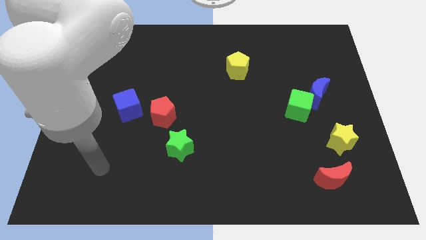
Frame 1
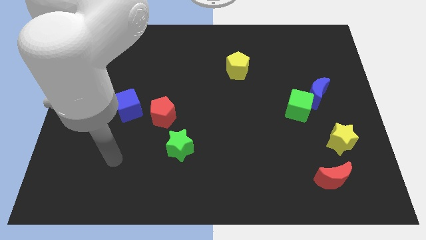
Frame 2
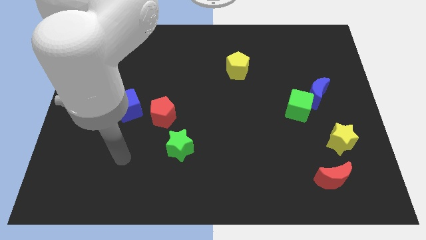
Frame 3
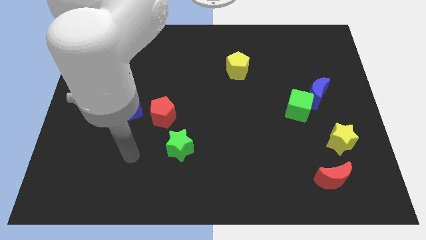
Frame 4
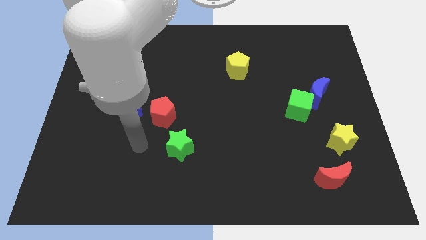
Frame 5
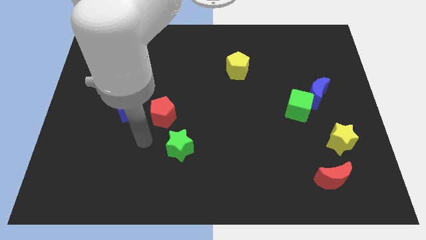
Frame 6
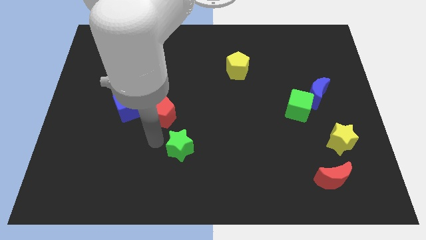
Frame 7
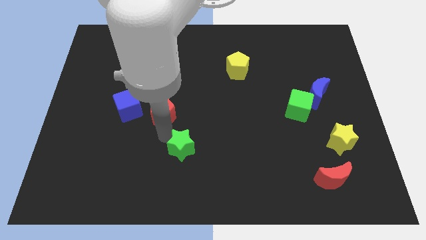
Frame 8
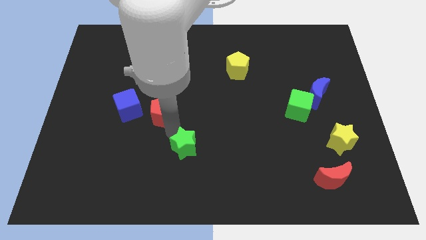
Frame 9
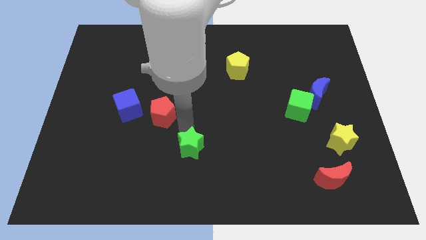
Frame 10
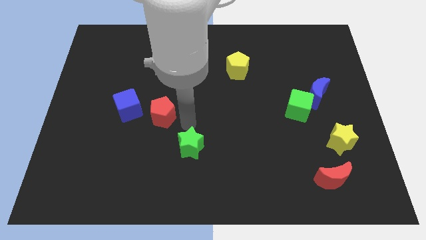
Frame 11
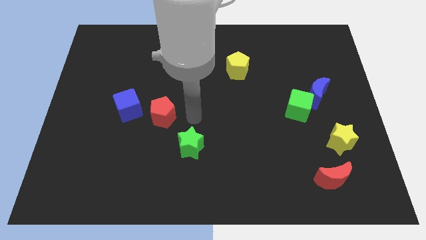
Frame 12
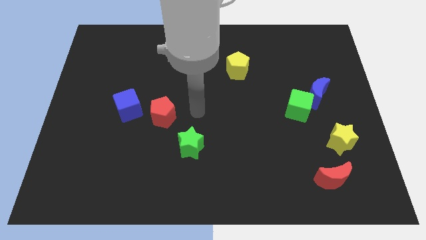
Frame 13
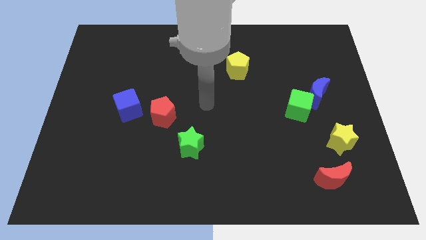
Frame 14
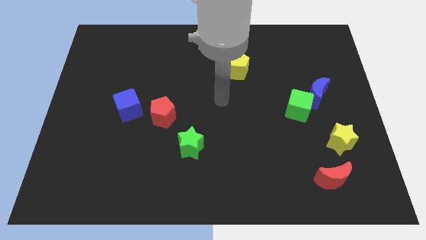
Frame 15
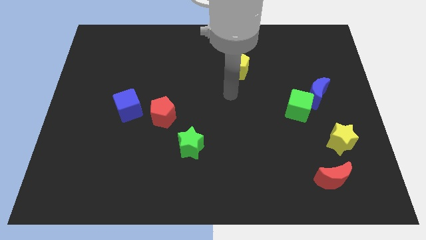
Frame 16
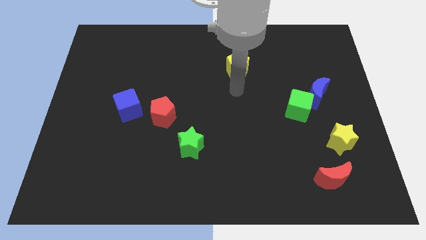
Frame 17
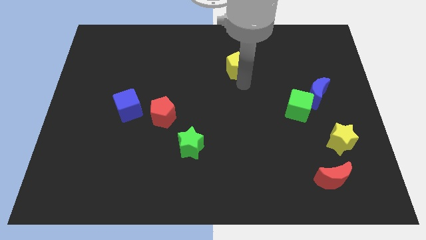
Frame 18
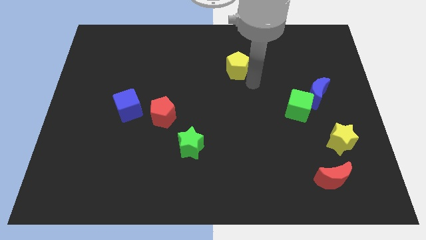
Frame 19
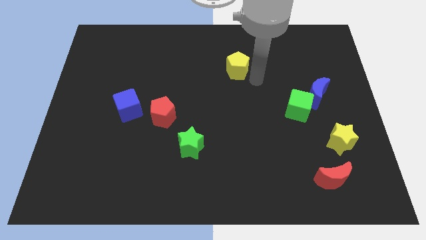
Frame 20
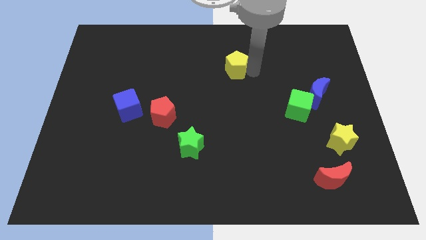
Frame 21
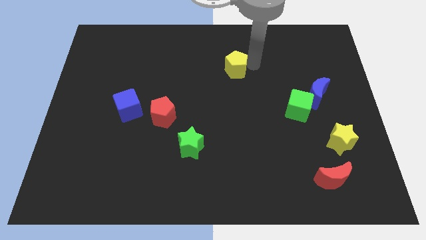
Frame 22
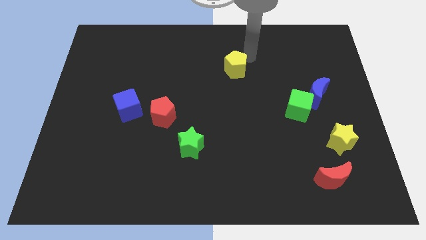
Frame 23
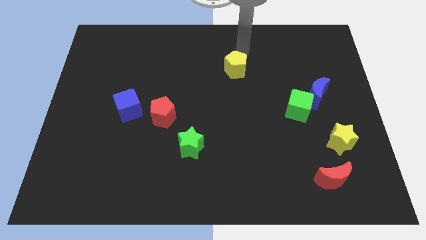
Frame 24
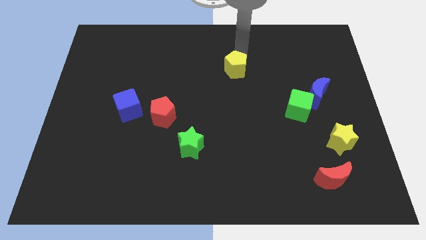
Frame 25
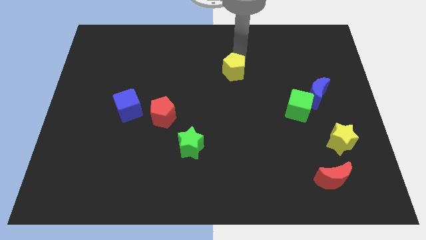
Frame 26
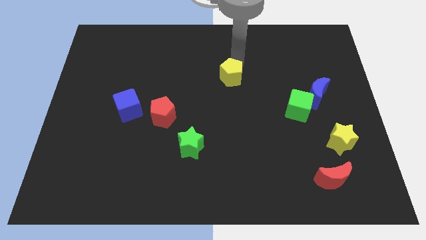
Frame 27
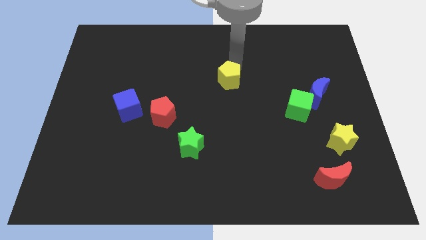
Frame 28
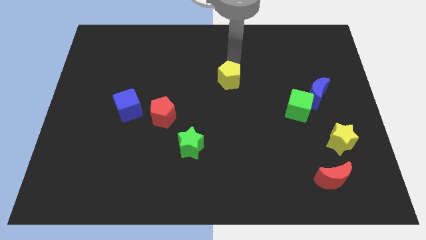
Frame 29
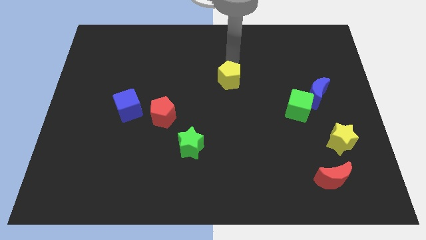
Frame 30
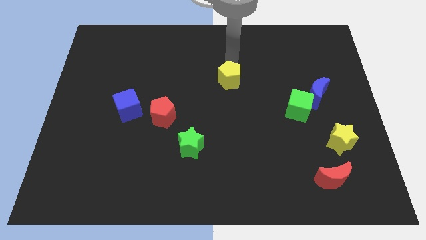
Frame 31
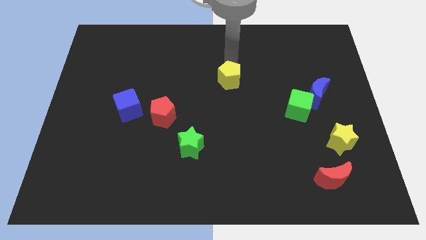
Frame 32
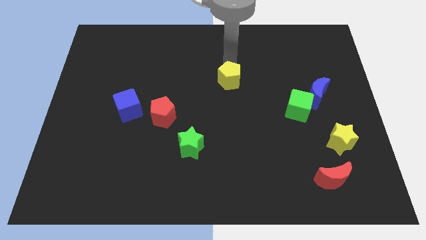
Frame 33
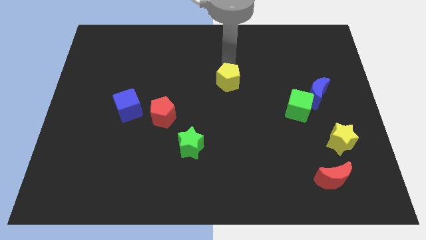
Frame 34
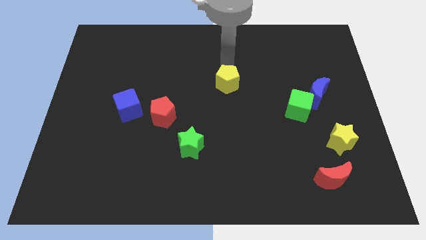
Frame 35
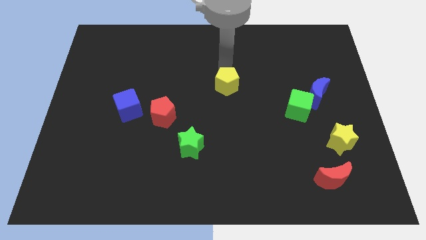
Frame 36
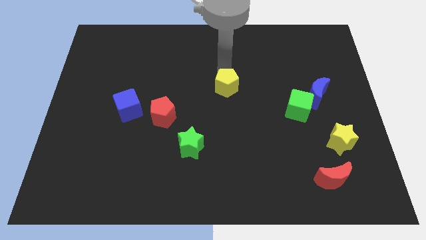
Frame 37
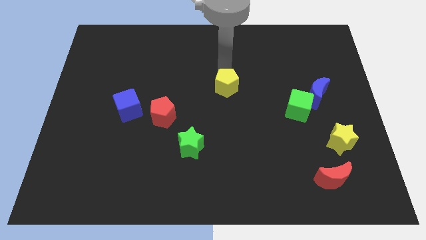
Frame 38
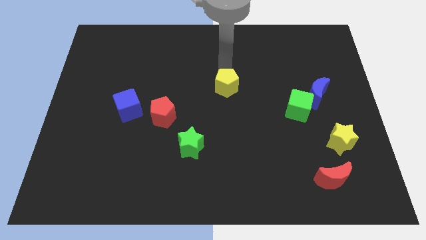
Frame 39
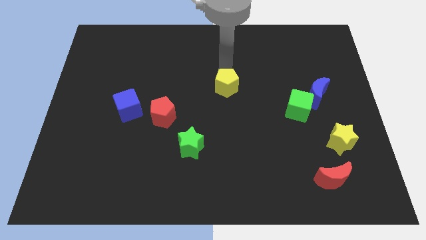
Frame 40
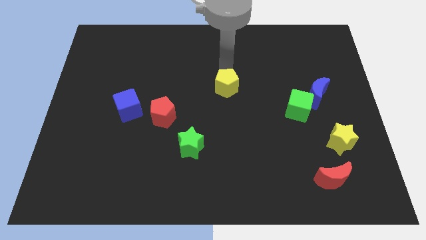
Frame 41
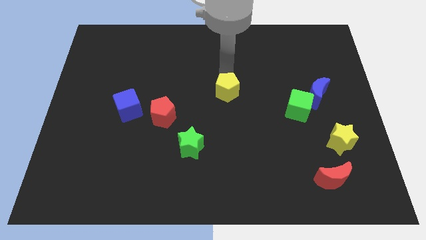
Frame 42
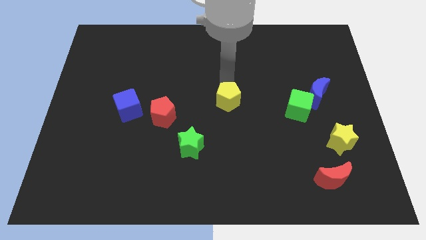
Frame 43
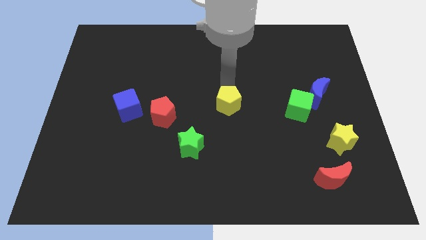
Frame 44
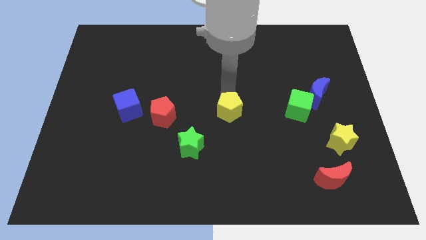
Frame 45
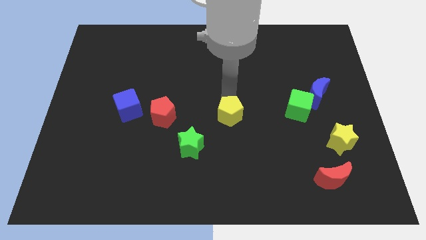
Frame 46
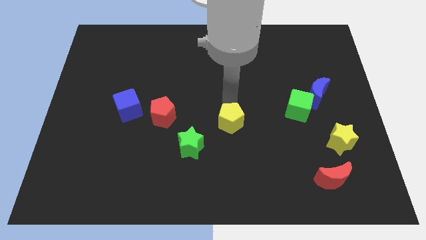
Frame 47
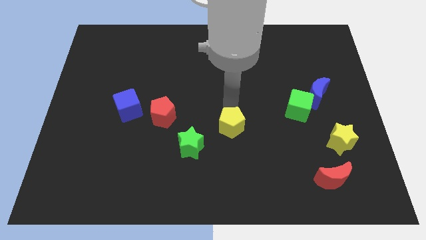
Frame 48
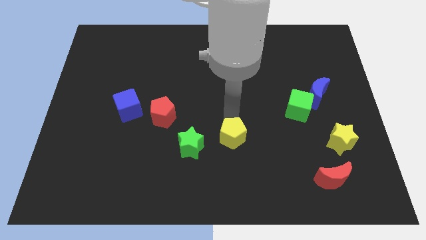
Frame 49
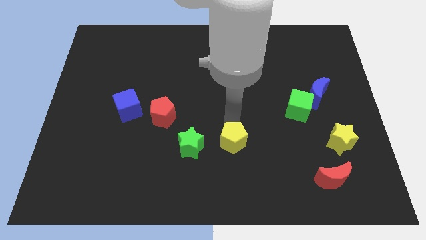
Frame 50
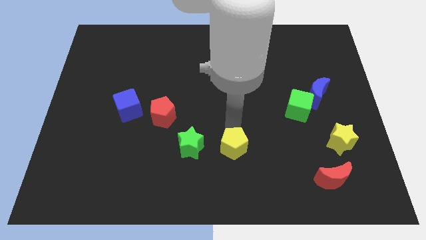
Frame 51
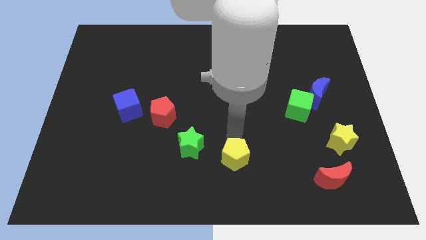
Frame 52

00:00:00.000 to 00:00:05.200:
push the yellow pentagon to the bottom side

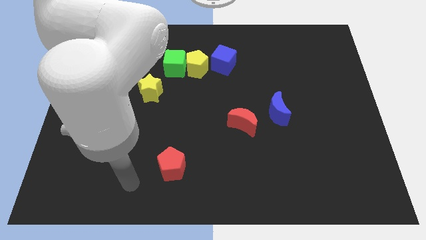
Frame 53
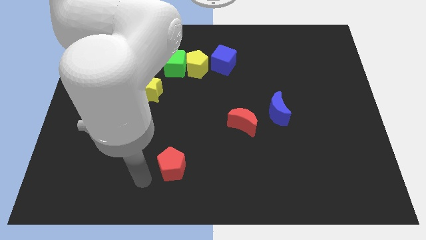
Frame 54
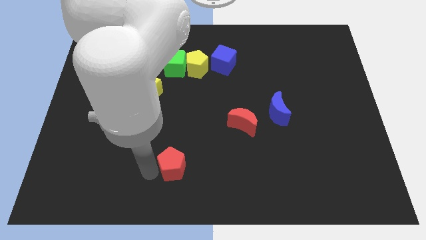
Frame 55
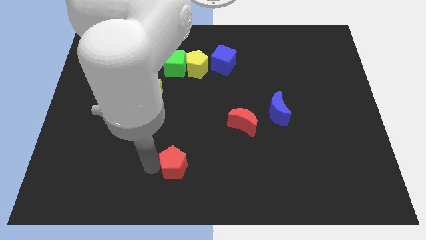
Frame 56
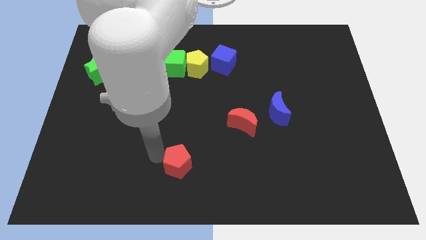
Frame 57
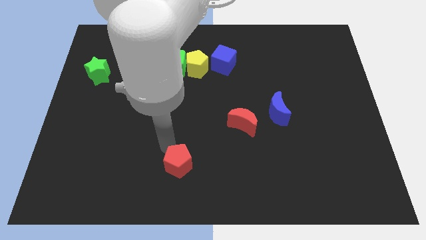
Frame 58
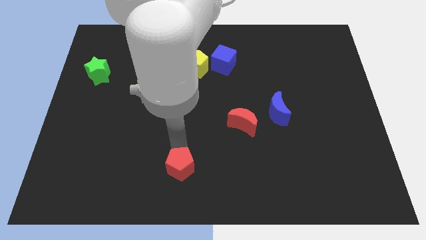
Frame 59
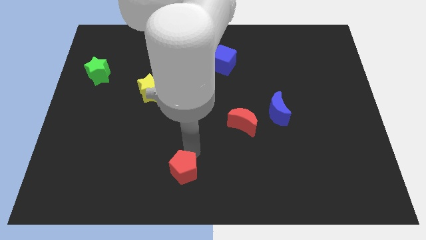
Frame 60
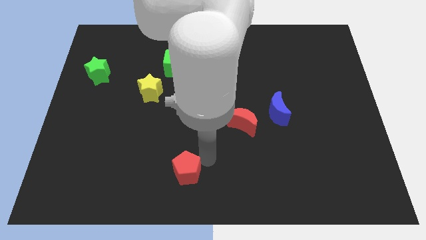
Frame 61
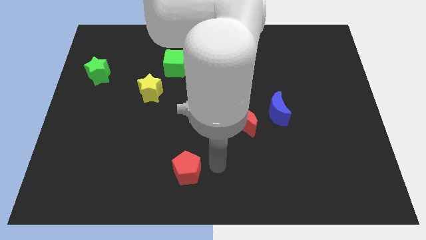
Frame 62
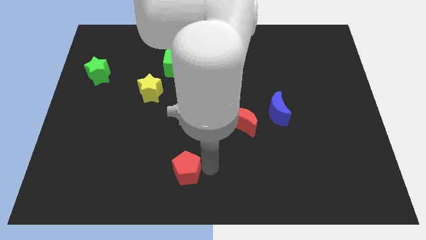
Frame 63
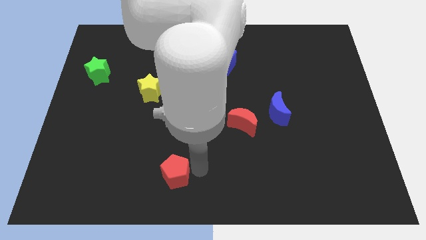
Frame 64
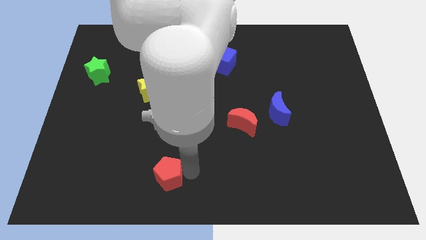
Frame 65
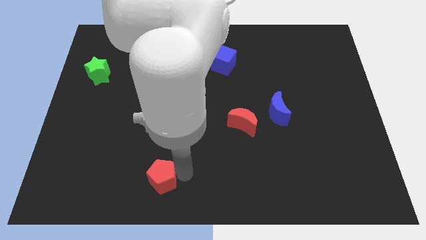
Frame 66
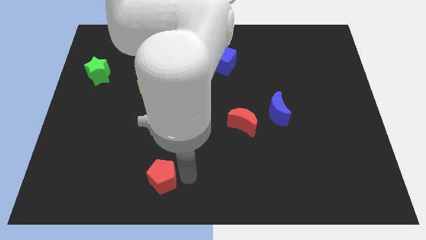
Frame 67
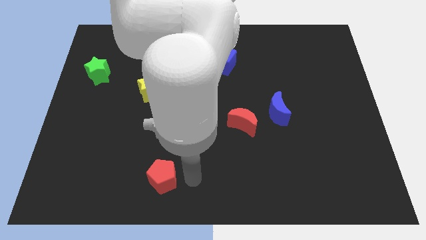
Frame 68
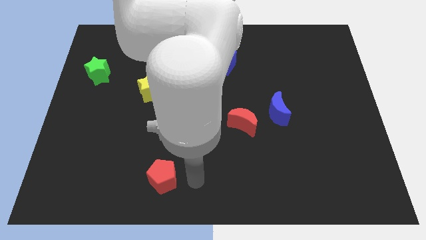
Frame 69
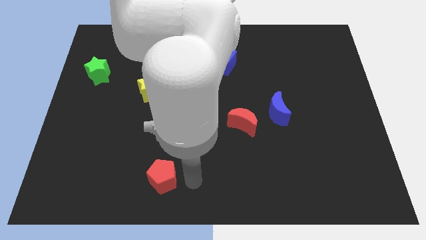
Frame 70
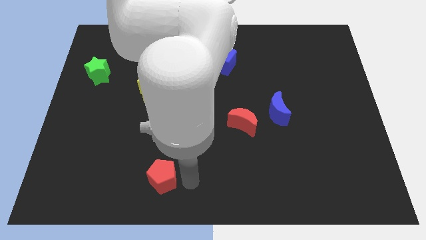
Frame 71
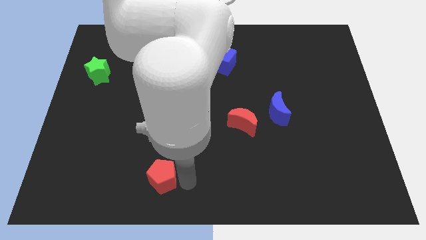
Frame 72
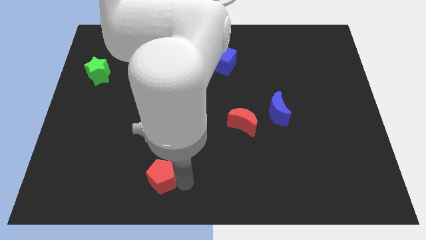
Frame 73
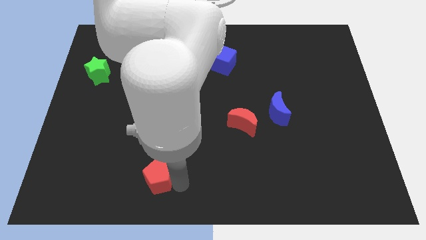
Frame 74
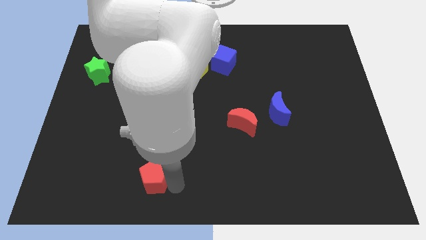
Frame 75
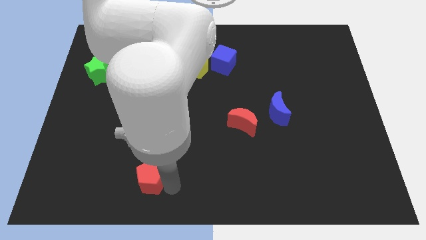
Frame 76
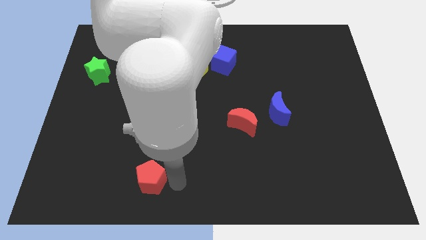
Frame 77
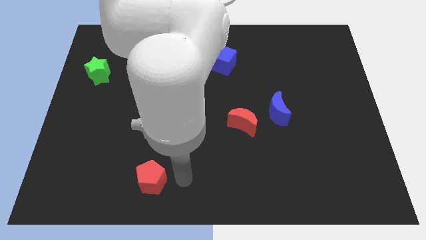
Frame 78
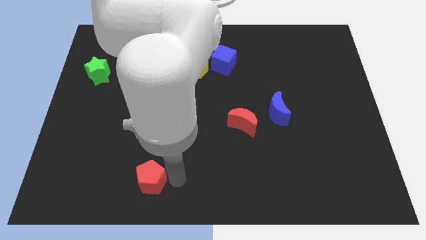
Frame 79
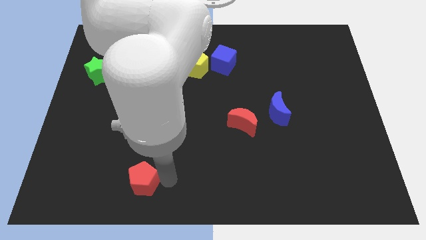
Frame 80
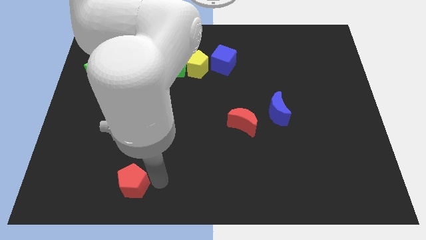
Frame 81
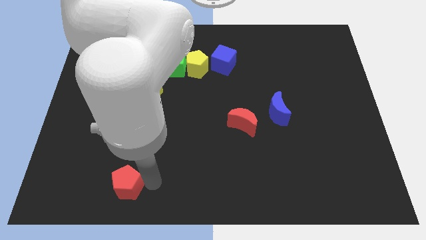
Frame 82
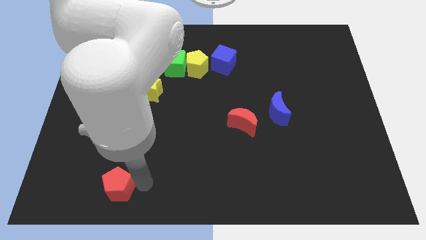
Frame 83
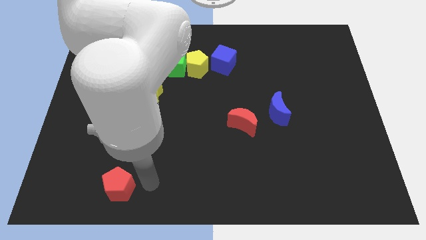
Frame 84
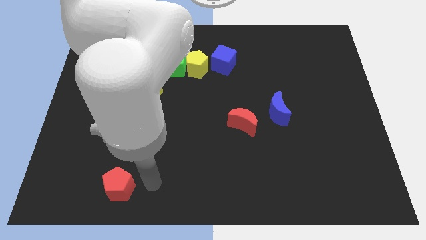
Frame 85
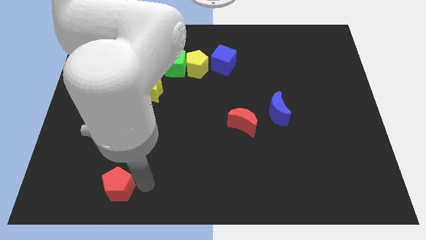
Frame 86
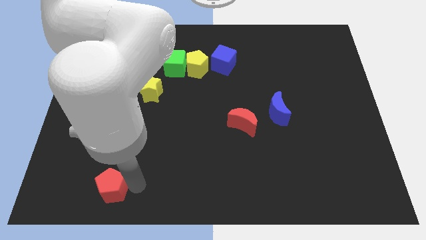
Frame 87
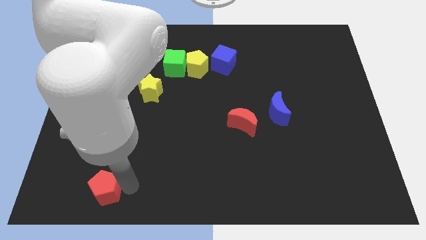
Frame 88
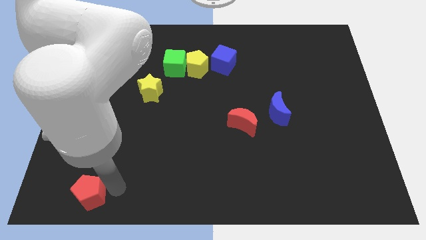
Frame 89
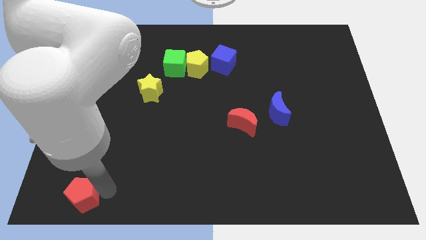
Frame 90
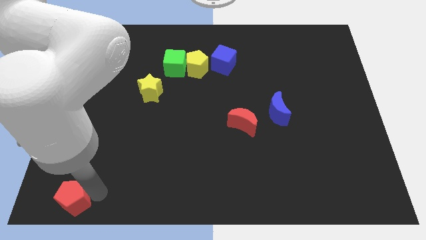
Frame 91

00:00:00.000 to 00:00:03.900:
move the red pentagon to the lower left corner
